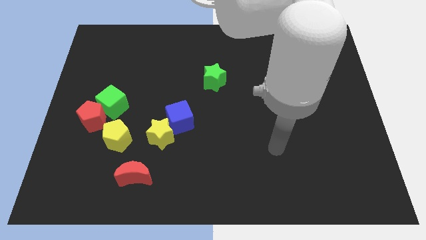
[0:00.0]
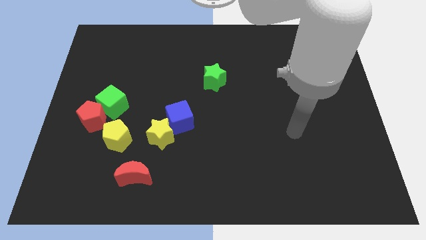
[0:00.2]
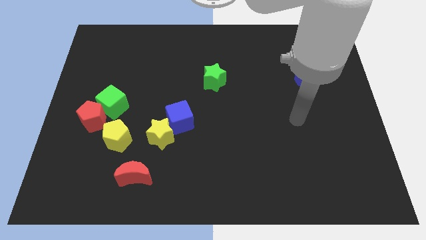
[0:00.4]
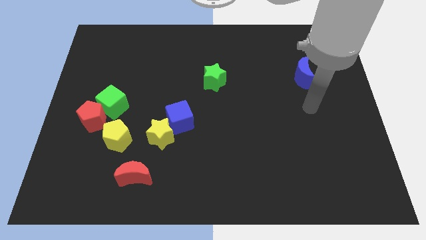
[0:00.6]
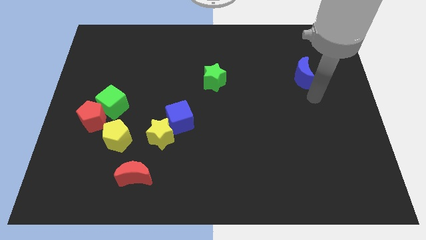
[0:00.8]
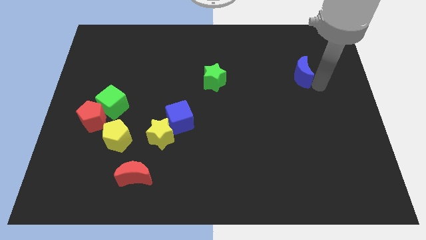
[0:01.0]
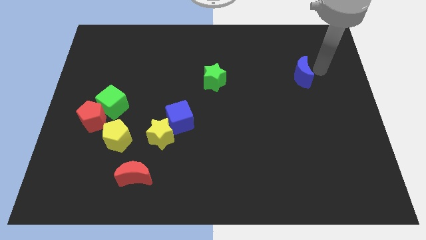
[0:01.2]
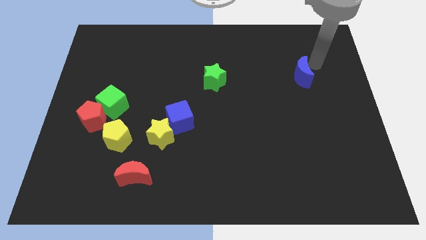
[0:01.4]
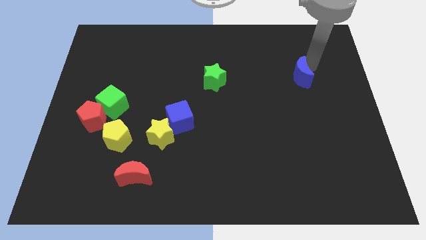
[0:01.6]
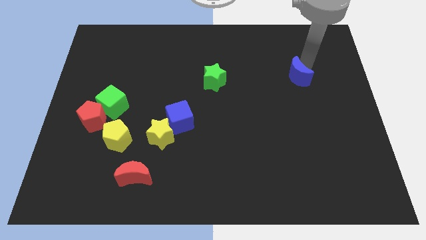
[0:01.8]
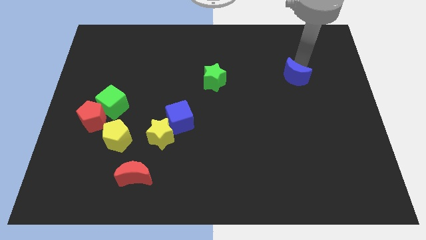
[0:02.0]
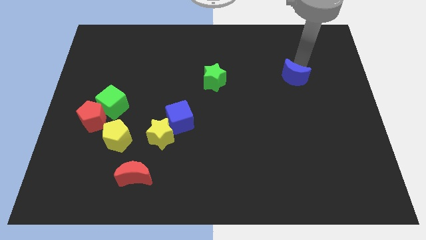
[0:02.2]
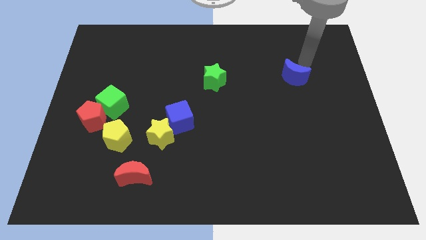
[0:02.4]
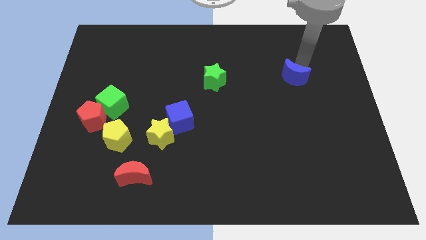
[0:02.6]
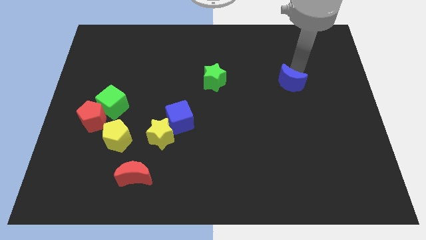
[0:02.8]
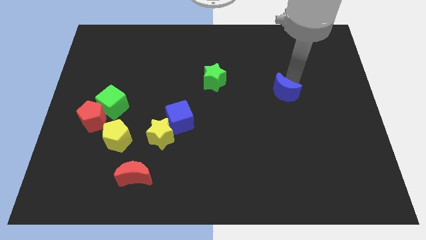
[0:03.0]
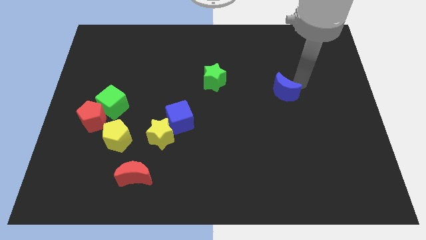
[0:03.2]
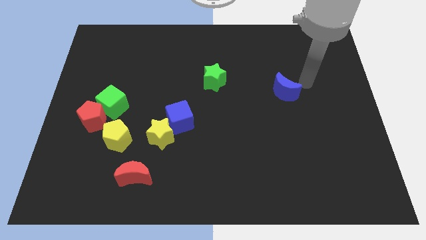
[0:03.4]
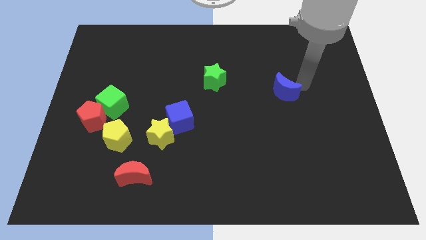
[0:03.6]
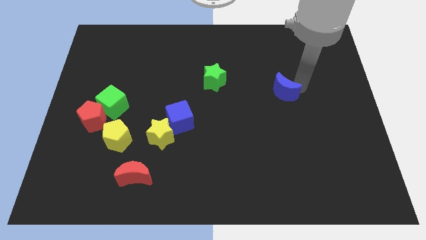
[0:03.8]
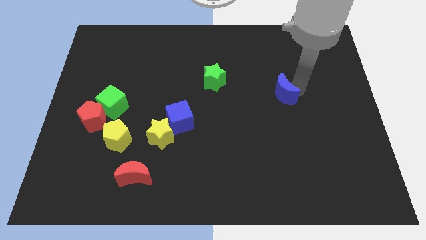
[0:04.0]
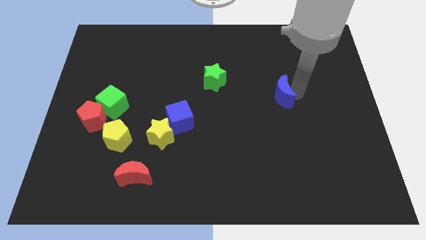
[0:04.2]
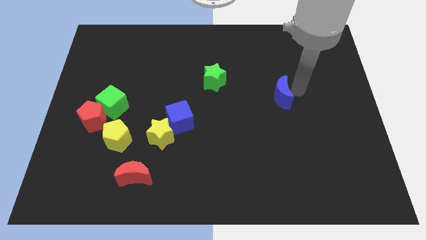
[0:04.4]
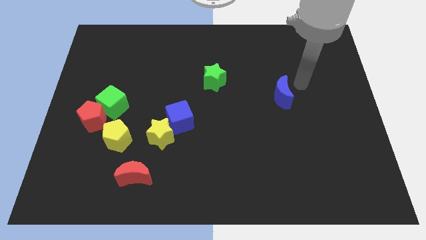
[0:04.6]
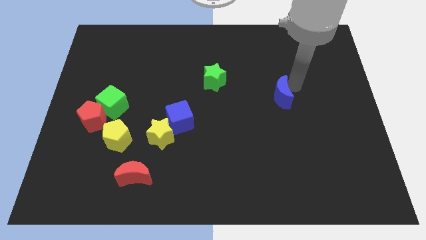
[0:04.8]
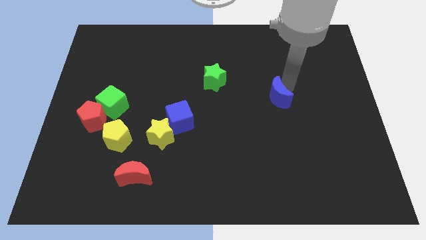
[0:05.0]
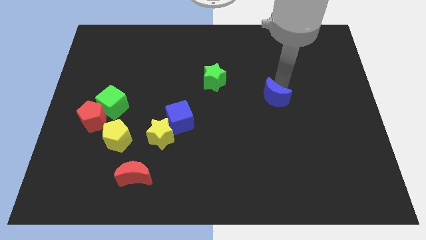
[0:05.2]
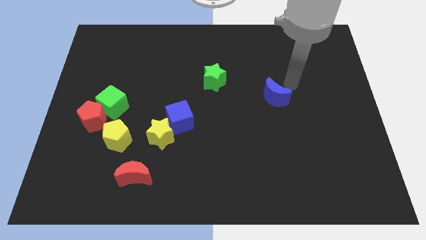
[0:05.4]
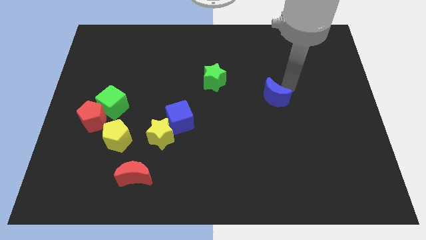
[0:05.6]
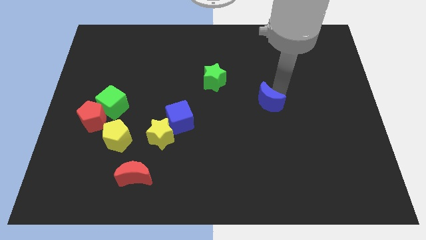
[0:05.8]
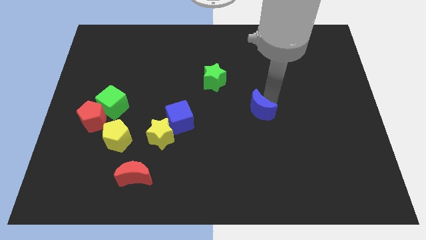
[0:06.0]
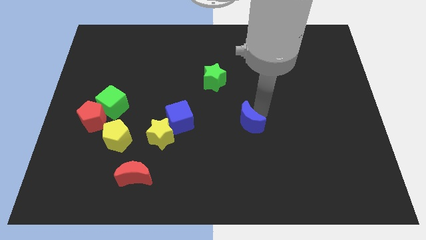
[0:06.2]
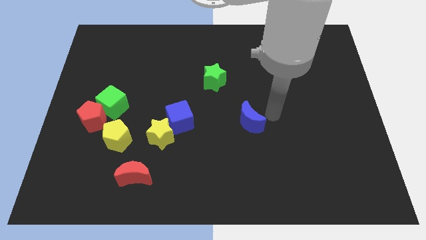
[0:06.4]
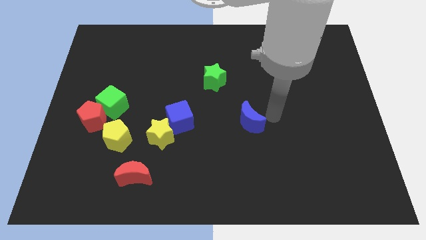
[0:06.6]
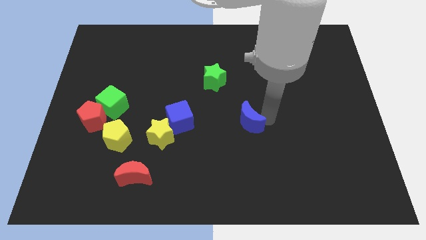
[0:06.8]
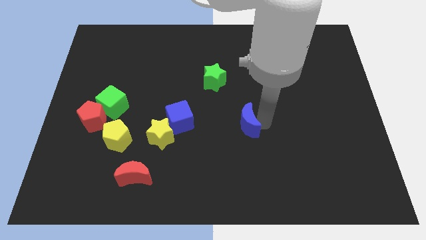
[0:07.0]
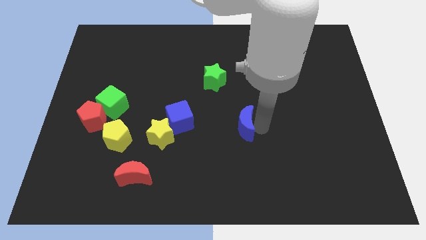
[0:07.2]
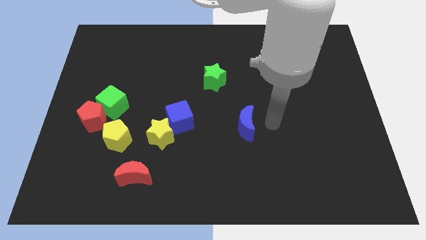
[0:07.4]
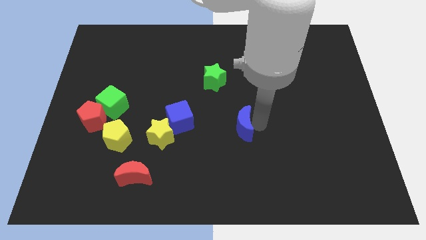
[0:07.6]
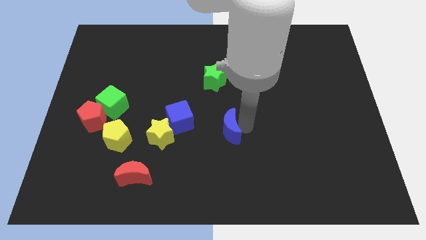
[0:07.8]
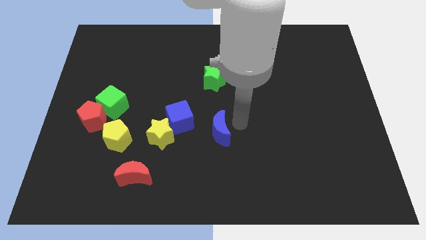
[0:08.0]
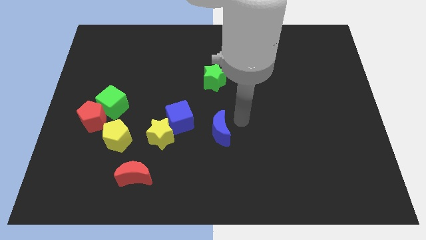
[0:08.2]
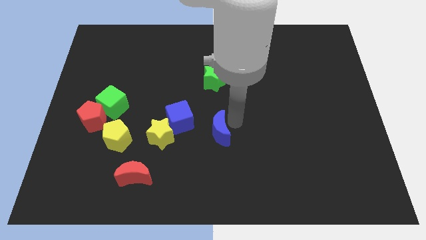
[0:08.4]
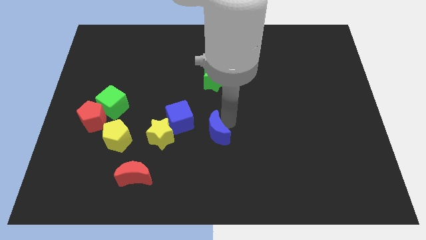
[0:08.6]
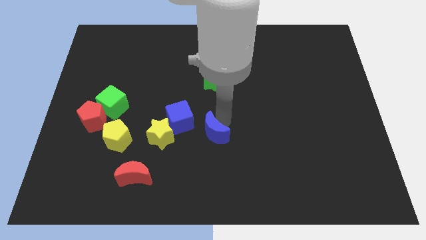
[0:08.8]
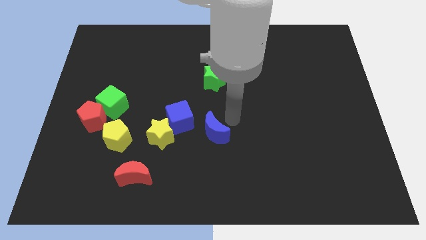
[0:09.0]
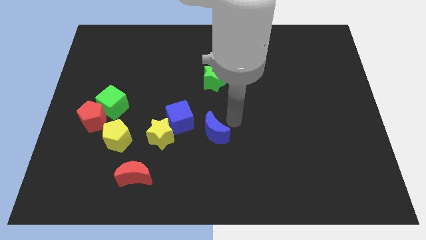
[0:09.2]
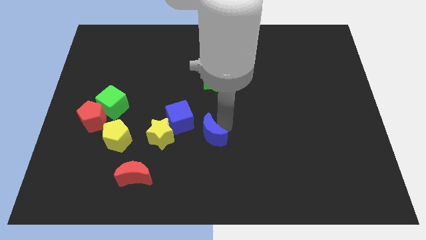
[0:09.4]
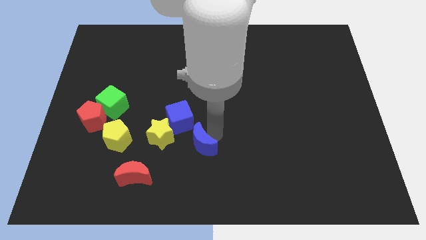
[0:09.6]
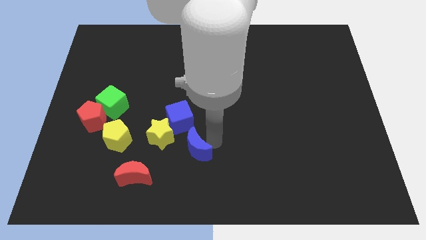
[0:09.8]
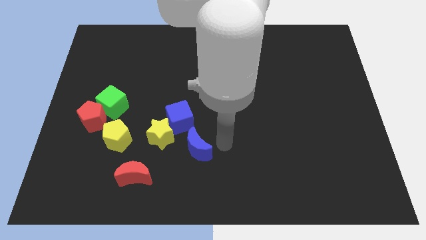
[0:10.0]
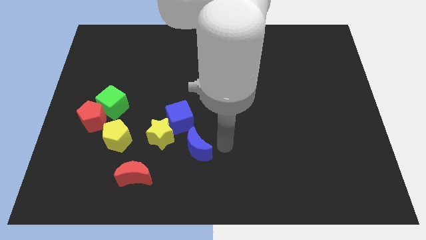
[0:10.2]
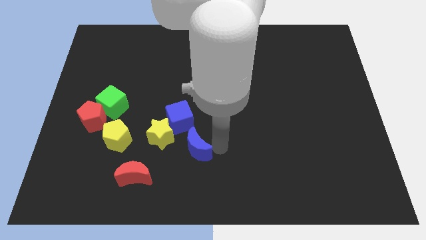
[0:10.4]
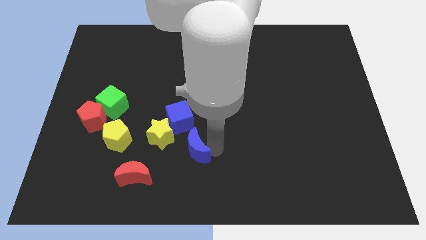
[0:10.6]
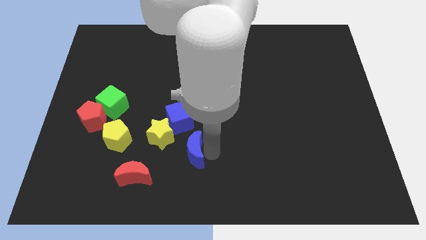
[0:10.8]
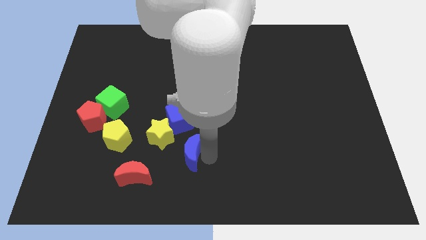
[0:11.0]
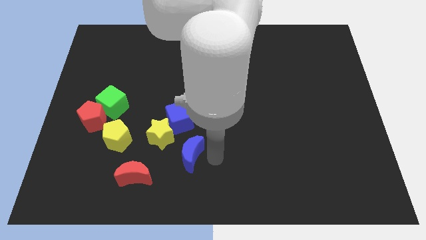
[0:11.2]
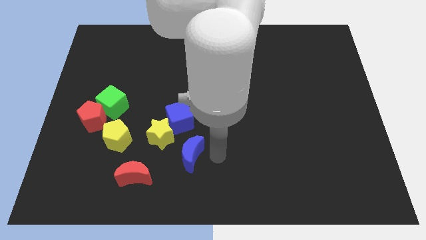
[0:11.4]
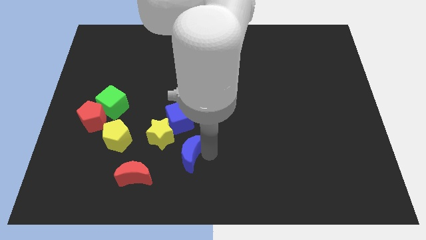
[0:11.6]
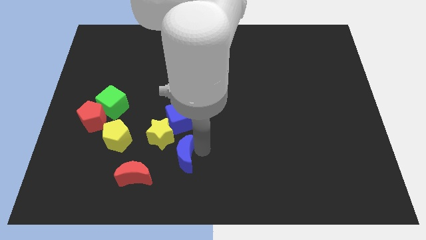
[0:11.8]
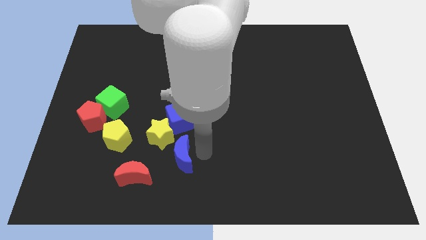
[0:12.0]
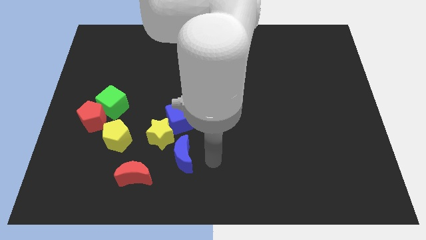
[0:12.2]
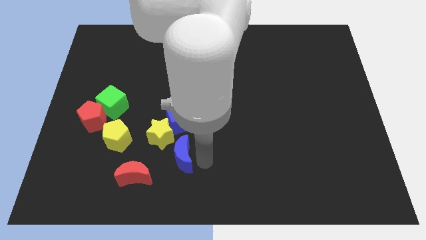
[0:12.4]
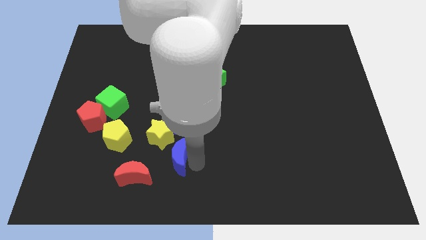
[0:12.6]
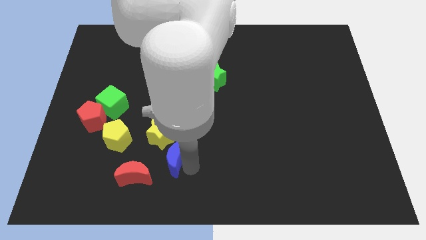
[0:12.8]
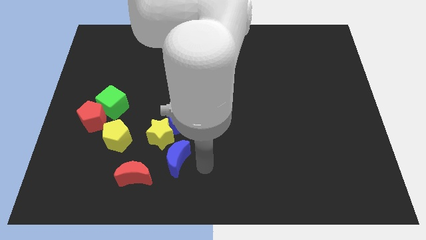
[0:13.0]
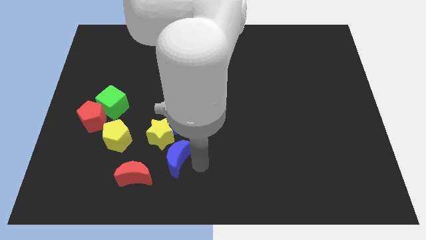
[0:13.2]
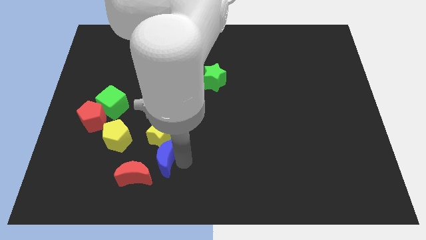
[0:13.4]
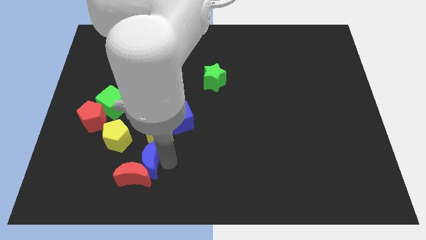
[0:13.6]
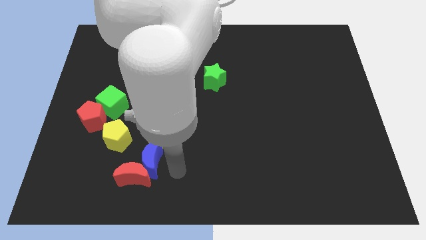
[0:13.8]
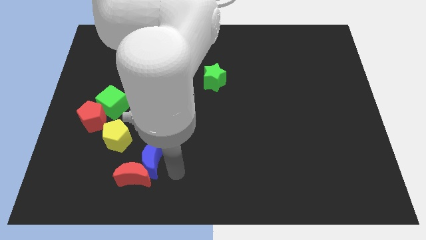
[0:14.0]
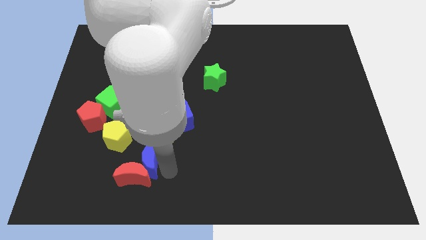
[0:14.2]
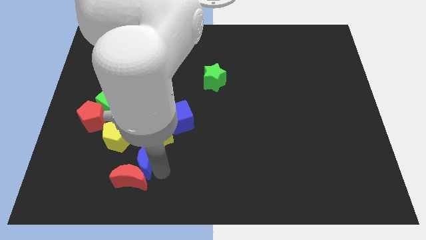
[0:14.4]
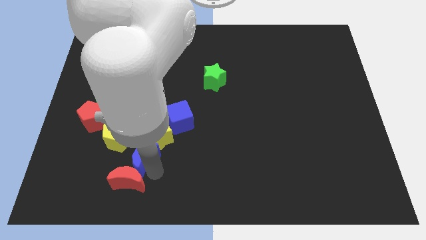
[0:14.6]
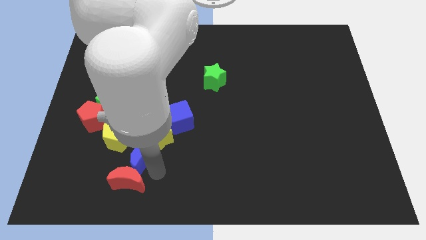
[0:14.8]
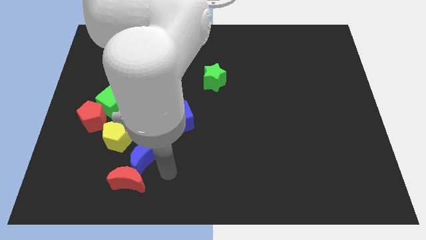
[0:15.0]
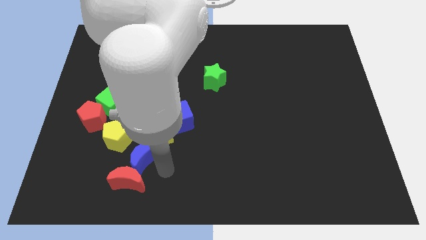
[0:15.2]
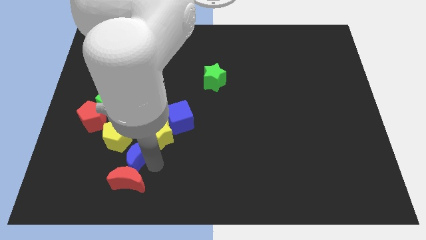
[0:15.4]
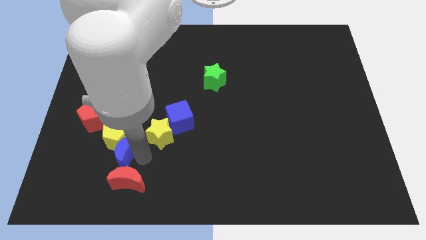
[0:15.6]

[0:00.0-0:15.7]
put the blue moon to the left of the yellow star
